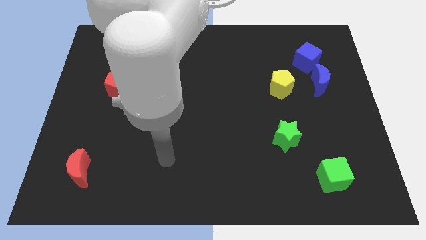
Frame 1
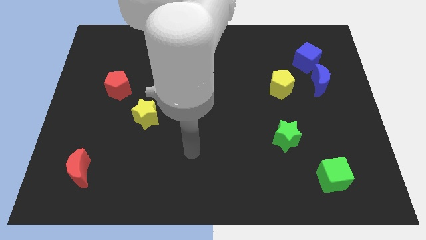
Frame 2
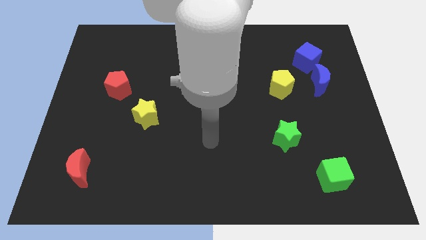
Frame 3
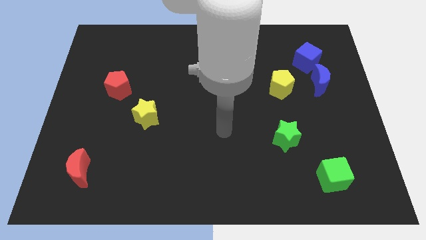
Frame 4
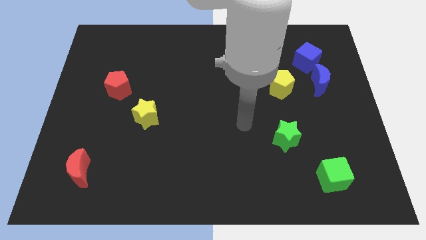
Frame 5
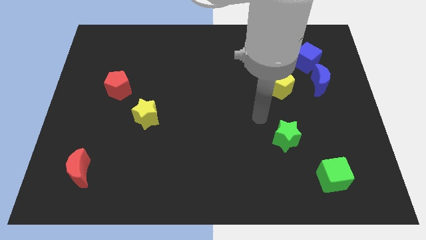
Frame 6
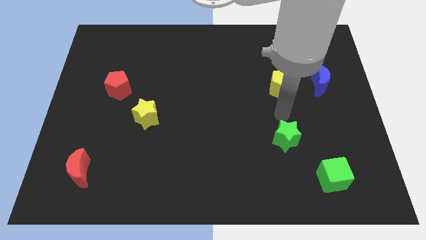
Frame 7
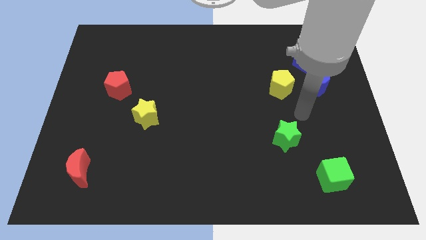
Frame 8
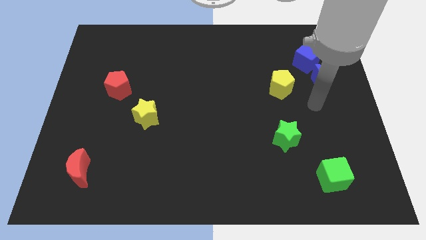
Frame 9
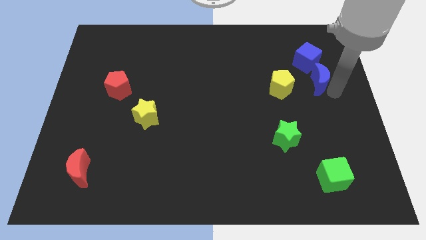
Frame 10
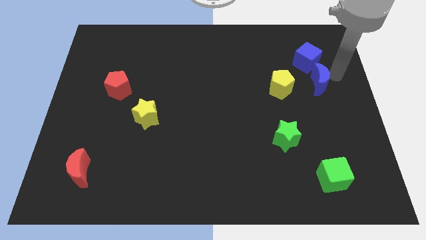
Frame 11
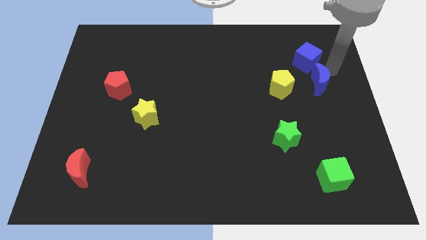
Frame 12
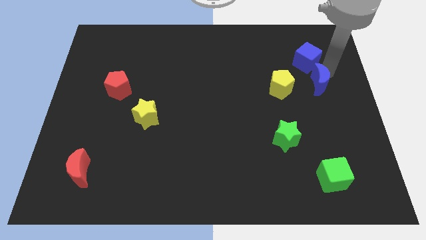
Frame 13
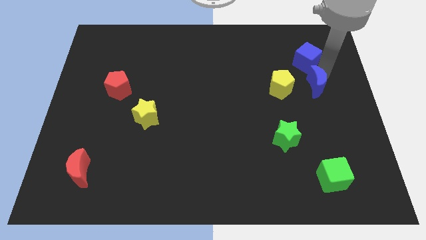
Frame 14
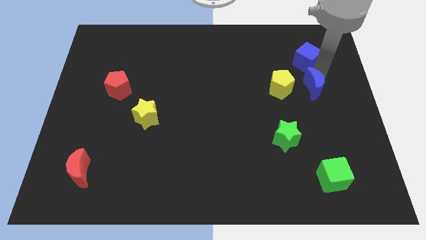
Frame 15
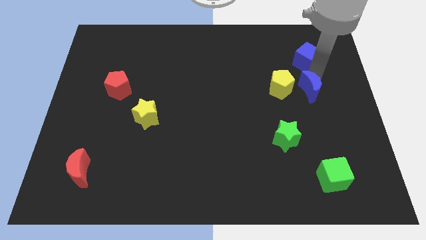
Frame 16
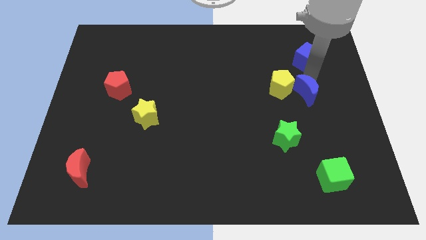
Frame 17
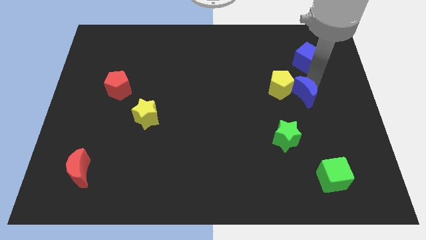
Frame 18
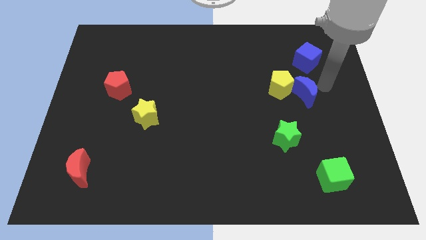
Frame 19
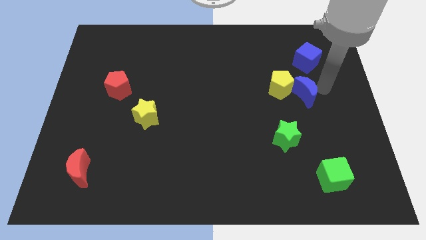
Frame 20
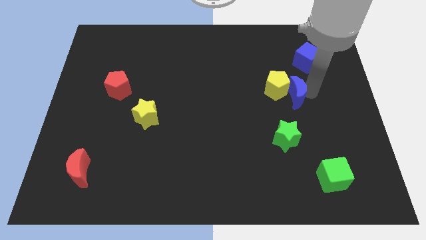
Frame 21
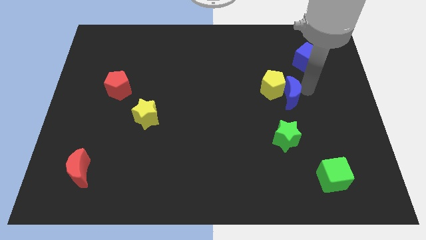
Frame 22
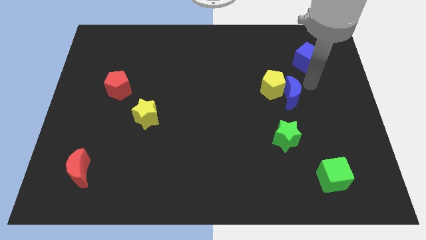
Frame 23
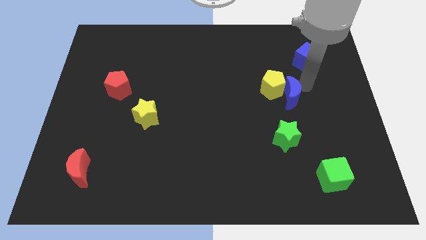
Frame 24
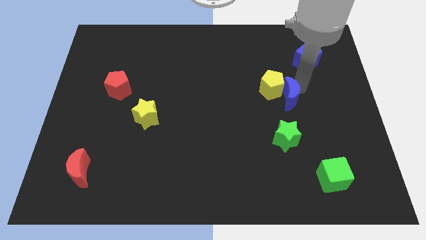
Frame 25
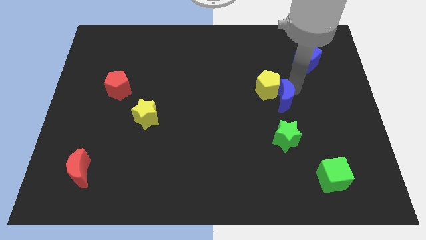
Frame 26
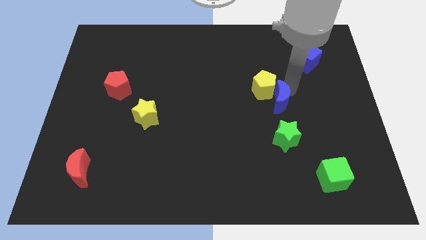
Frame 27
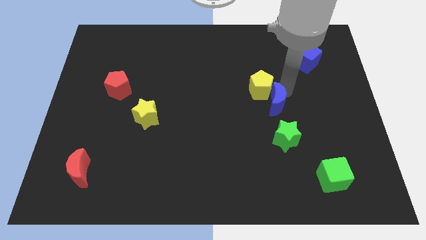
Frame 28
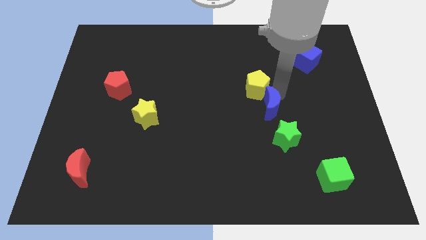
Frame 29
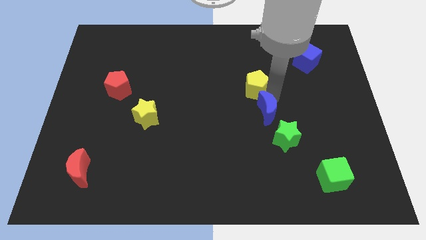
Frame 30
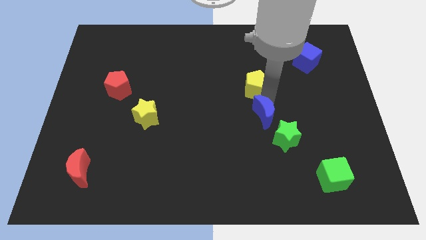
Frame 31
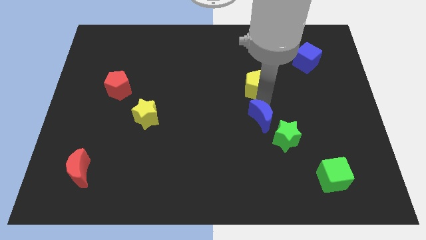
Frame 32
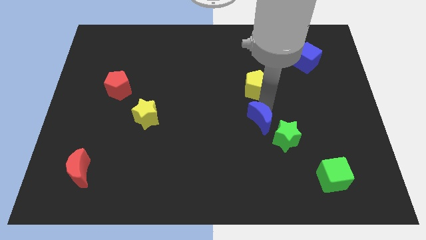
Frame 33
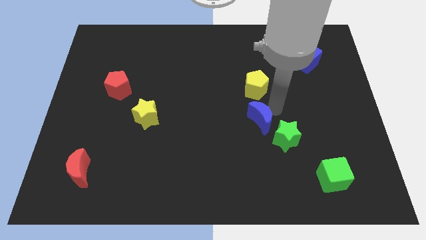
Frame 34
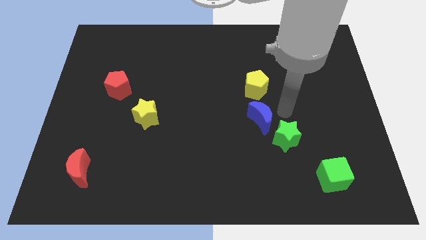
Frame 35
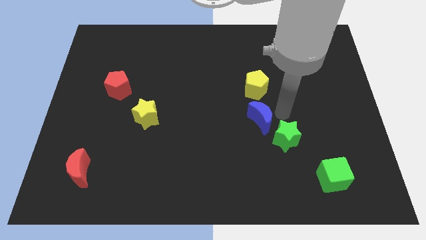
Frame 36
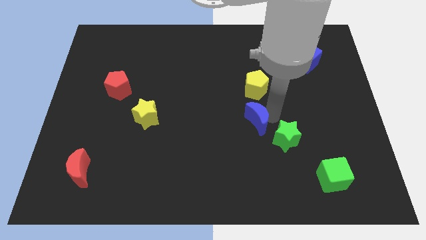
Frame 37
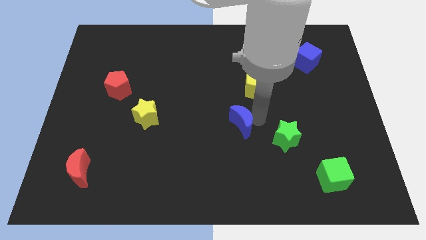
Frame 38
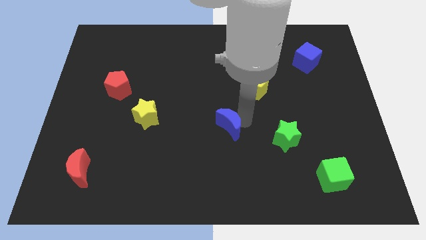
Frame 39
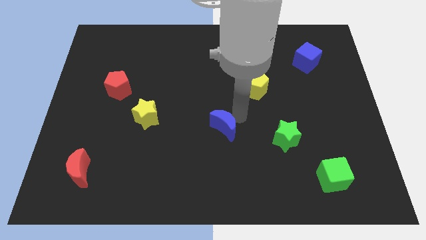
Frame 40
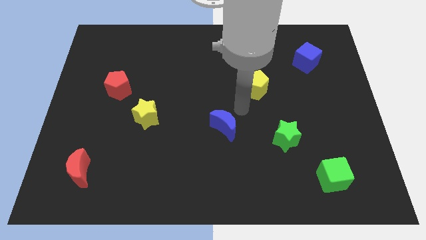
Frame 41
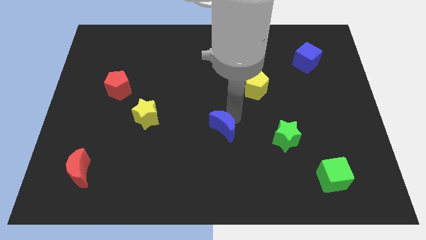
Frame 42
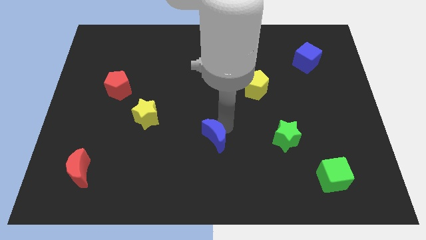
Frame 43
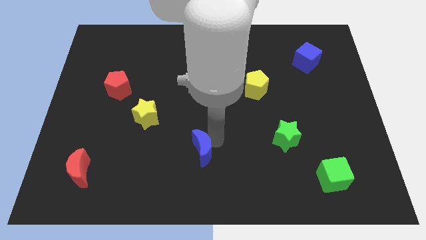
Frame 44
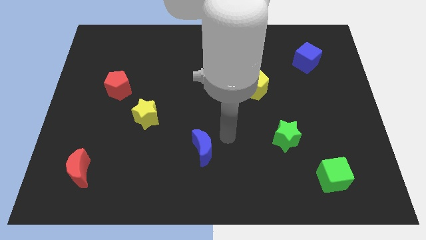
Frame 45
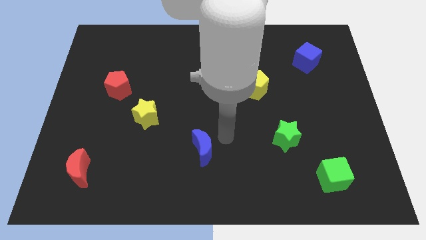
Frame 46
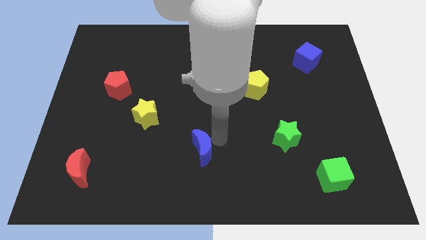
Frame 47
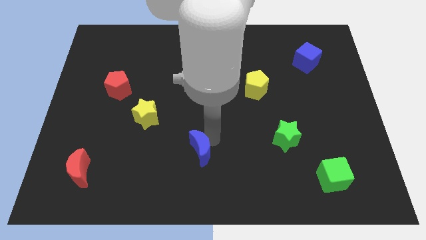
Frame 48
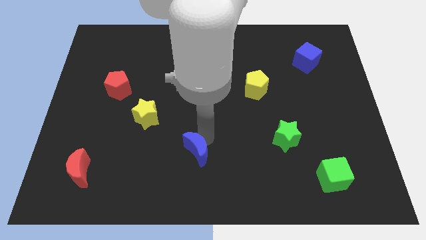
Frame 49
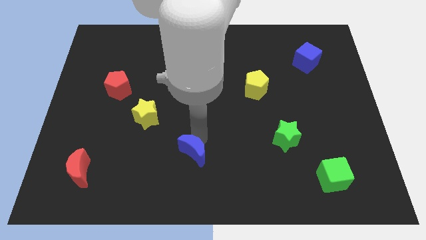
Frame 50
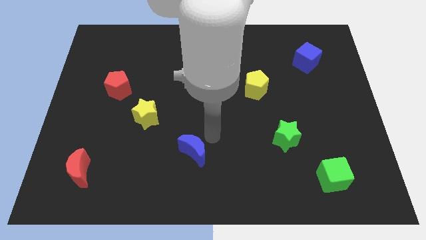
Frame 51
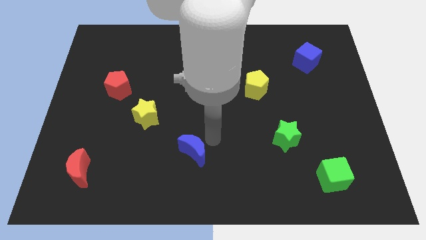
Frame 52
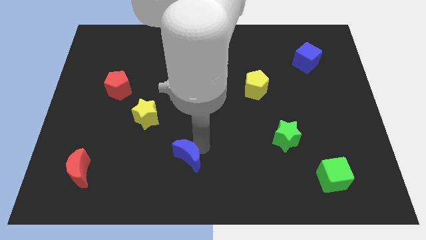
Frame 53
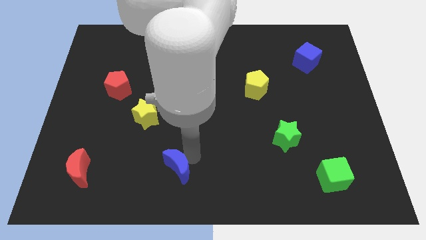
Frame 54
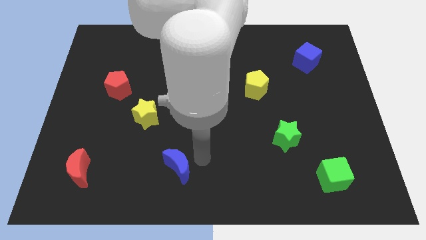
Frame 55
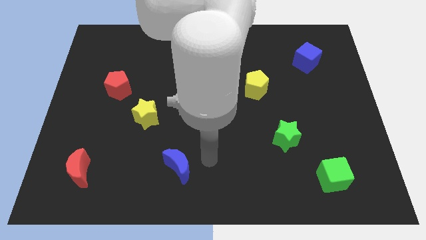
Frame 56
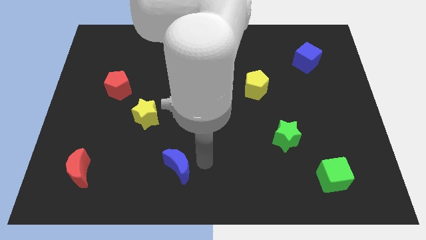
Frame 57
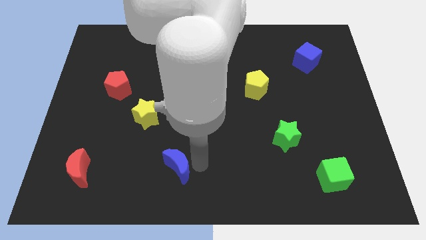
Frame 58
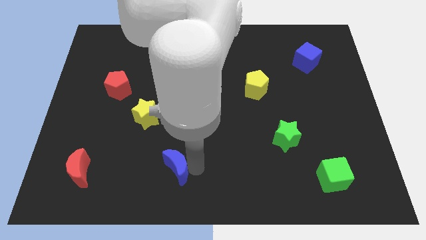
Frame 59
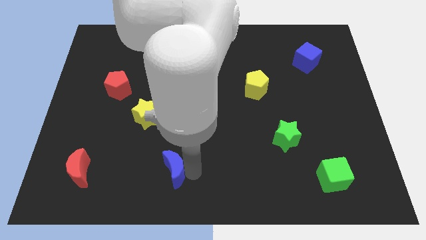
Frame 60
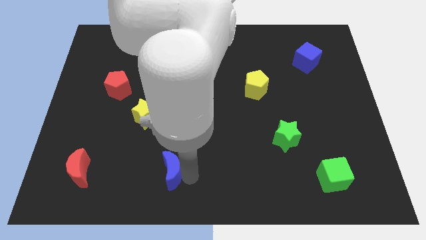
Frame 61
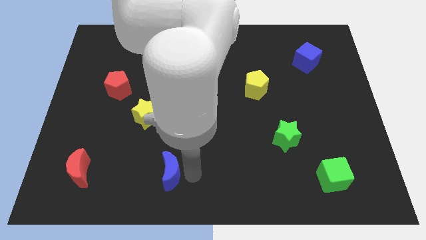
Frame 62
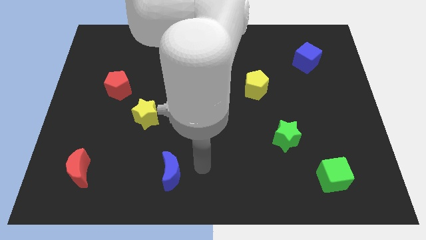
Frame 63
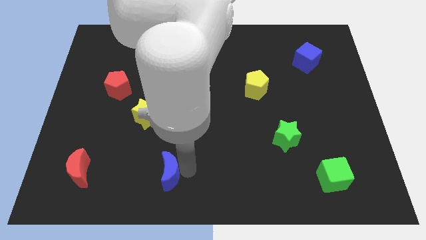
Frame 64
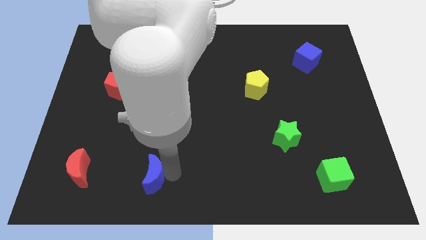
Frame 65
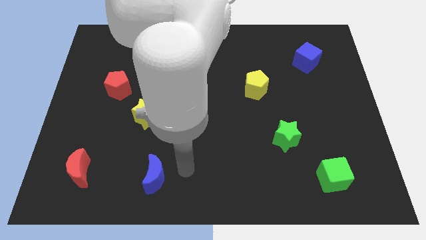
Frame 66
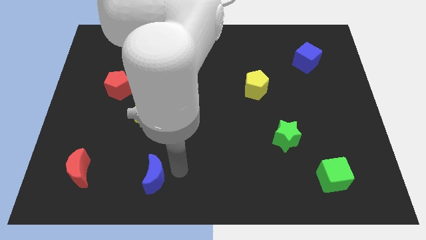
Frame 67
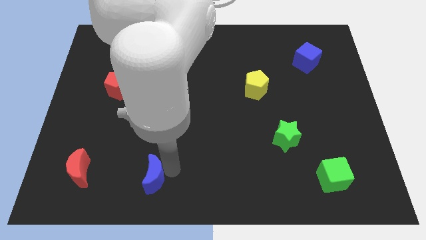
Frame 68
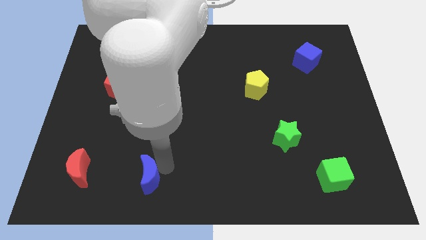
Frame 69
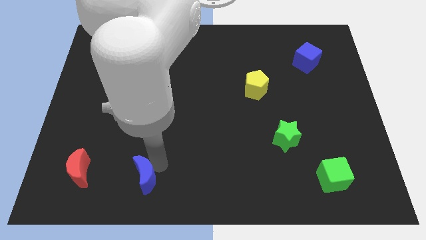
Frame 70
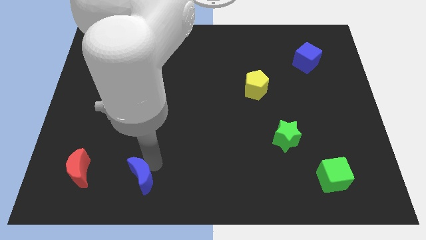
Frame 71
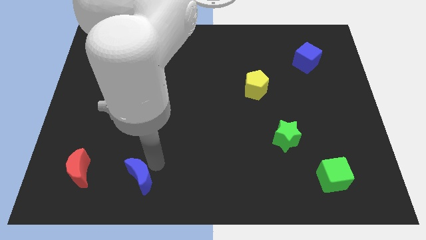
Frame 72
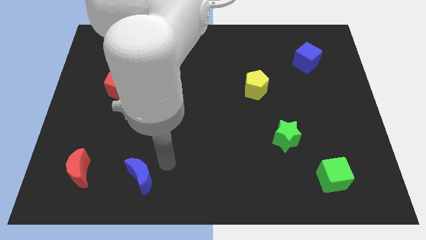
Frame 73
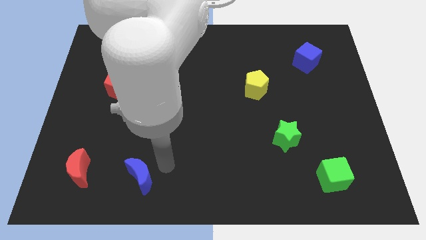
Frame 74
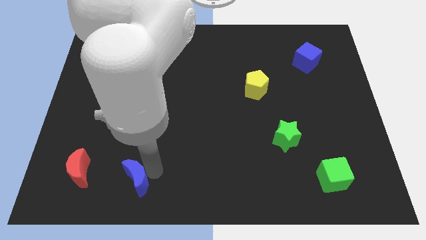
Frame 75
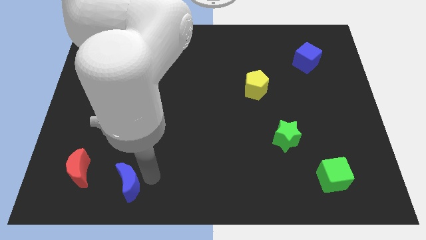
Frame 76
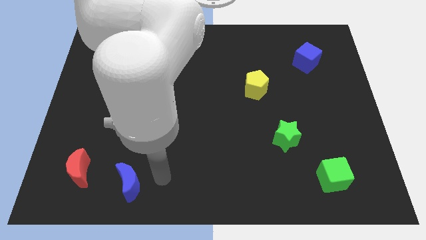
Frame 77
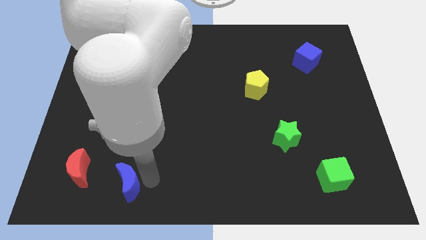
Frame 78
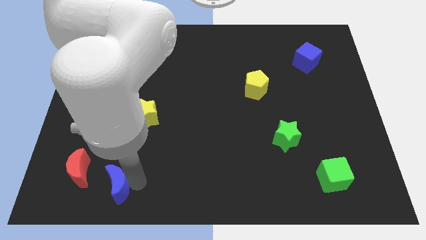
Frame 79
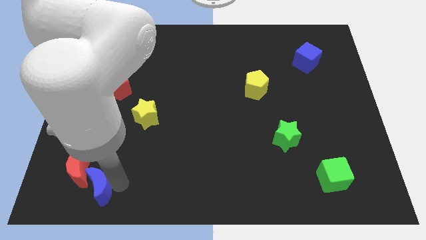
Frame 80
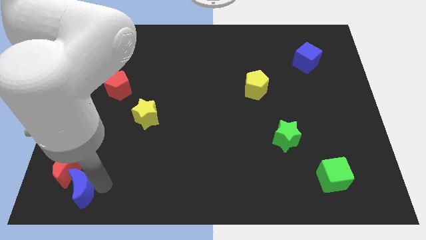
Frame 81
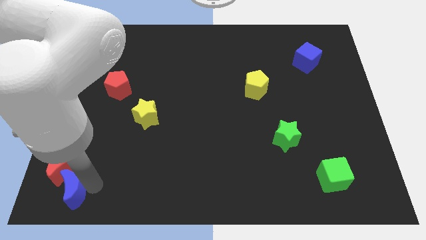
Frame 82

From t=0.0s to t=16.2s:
move the blue moon to the lower left corner
